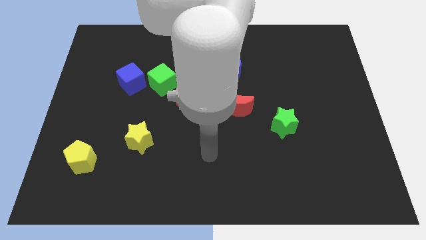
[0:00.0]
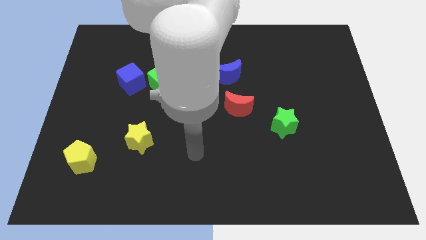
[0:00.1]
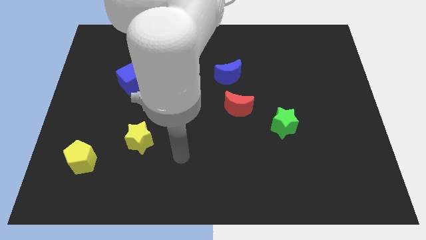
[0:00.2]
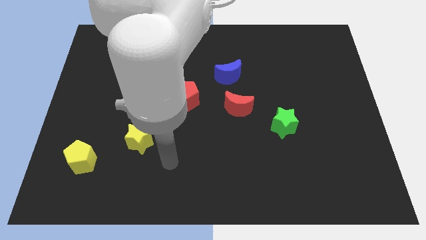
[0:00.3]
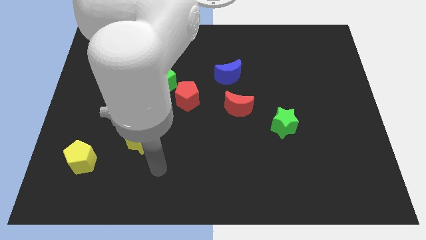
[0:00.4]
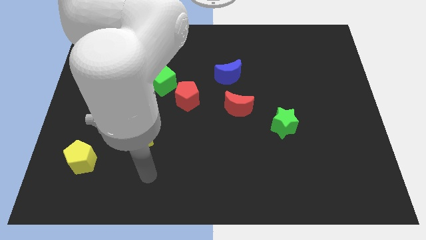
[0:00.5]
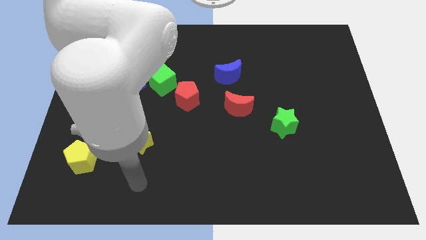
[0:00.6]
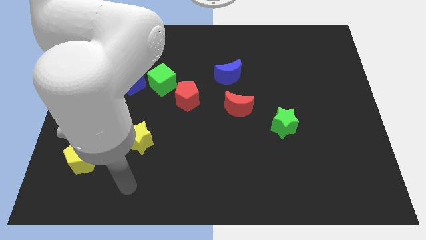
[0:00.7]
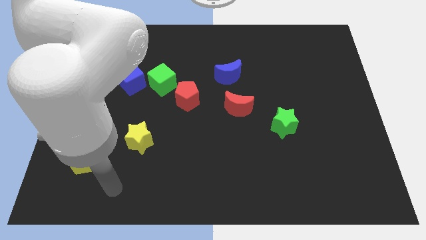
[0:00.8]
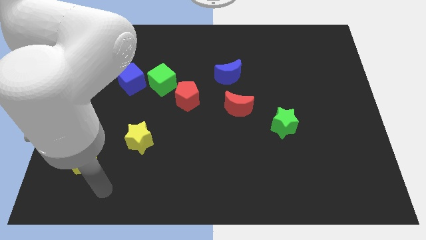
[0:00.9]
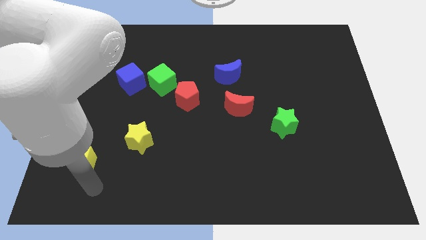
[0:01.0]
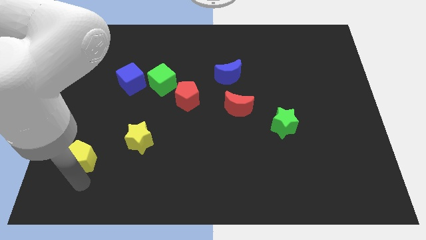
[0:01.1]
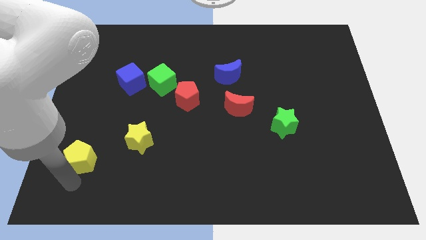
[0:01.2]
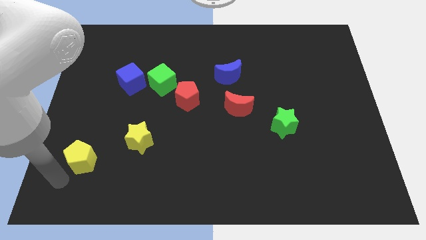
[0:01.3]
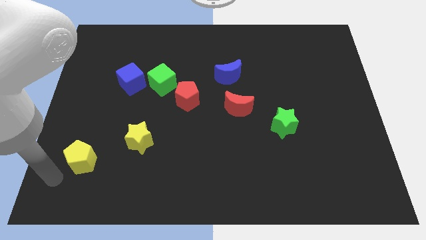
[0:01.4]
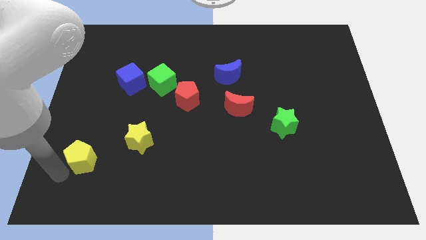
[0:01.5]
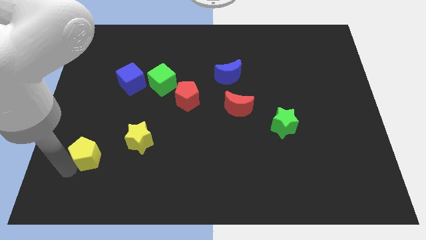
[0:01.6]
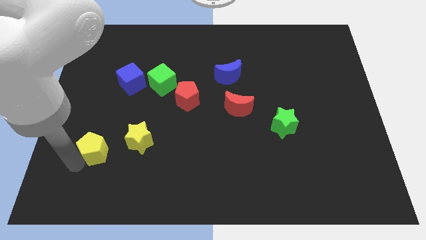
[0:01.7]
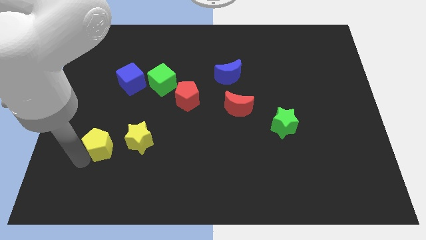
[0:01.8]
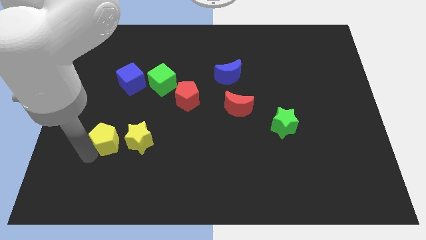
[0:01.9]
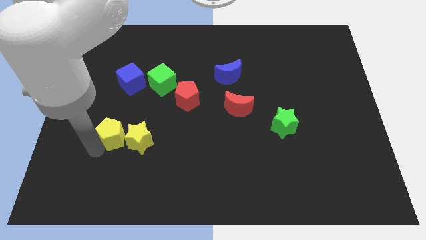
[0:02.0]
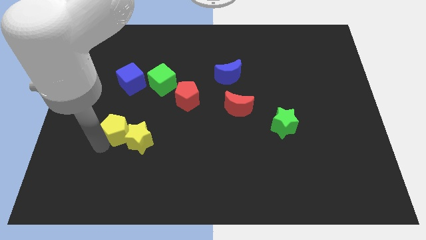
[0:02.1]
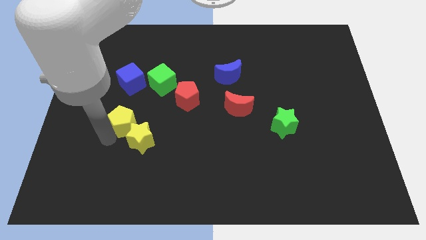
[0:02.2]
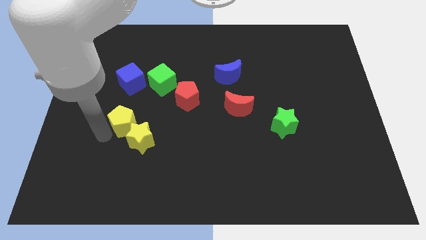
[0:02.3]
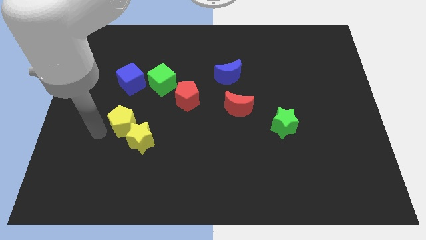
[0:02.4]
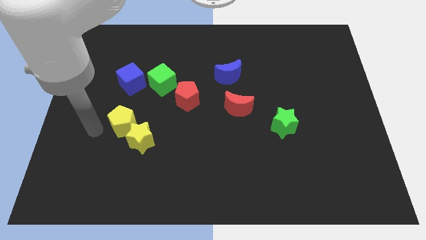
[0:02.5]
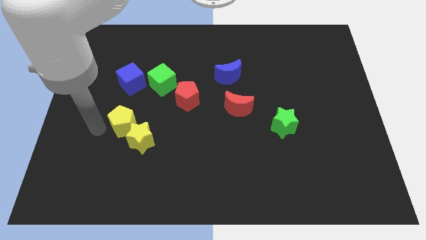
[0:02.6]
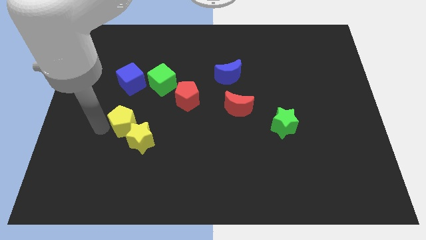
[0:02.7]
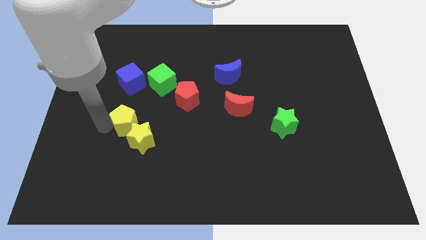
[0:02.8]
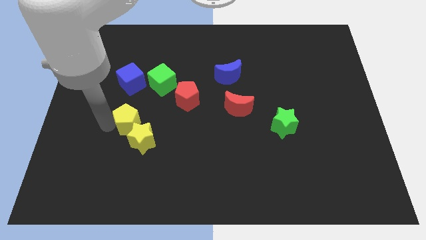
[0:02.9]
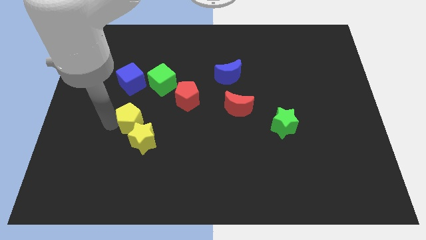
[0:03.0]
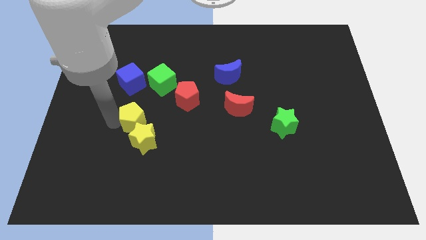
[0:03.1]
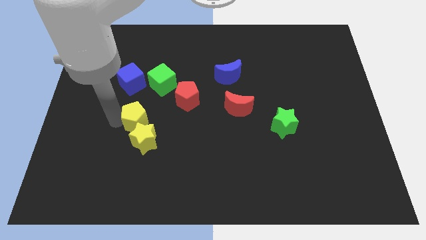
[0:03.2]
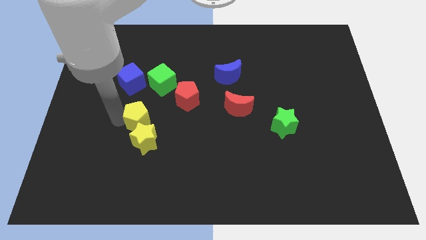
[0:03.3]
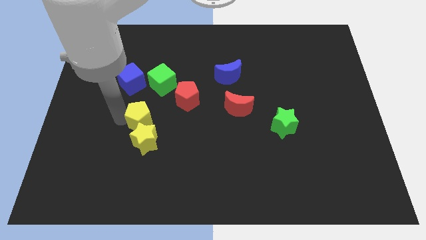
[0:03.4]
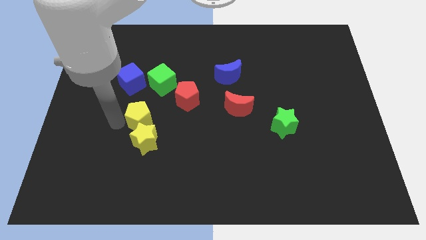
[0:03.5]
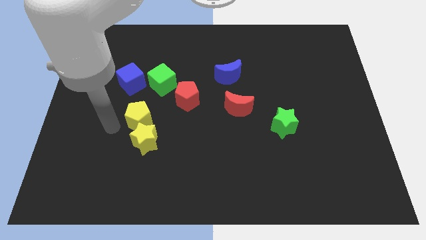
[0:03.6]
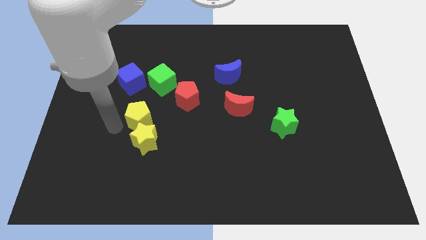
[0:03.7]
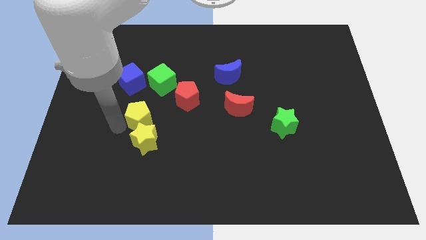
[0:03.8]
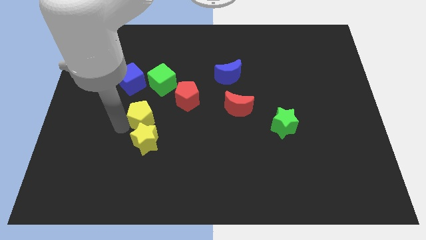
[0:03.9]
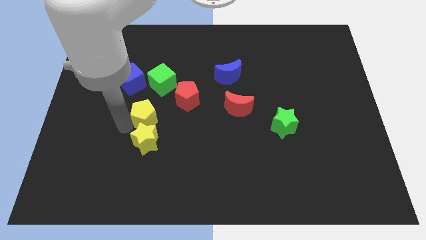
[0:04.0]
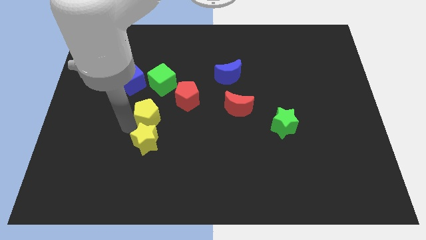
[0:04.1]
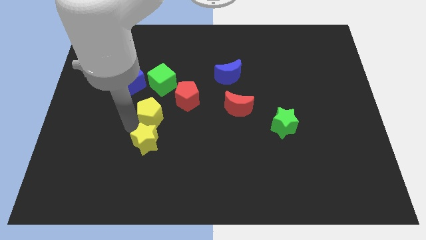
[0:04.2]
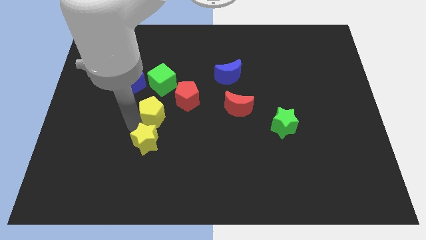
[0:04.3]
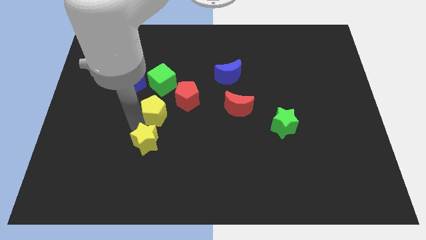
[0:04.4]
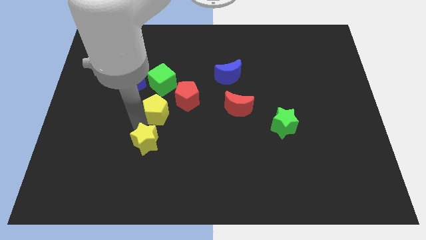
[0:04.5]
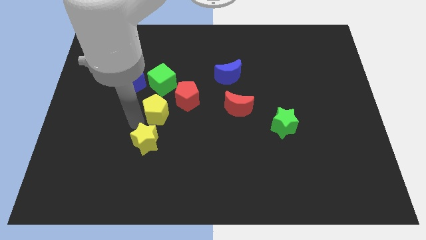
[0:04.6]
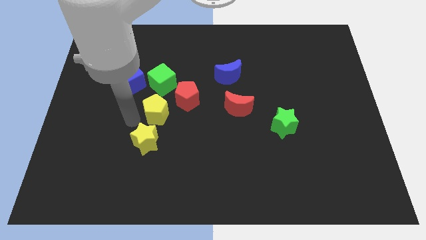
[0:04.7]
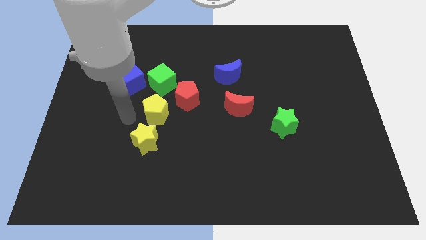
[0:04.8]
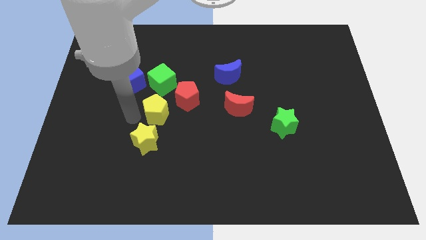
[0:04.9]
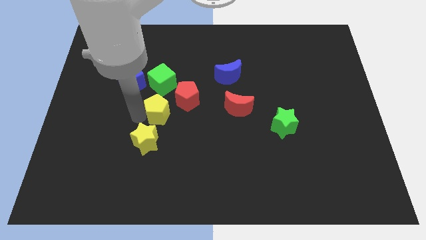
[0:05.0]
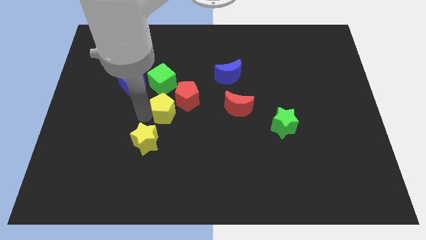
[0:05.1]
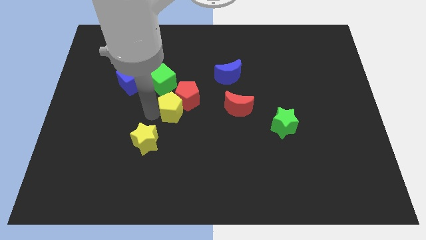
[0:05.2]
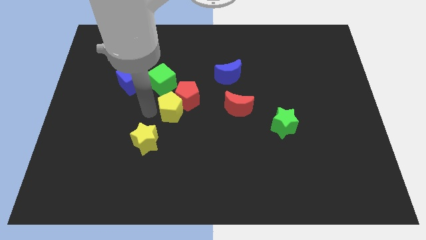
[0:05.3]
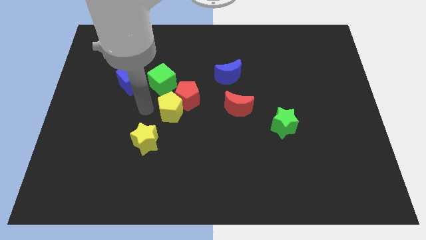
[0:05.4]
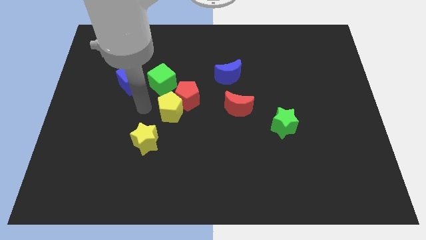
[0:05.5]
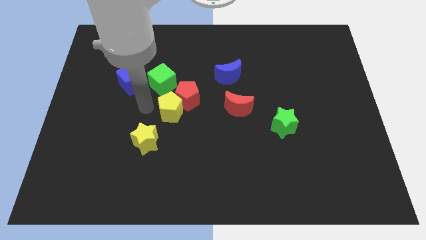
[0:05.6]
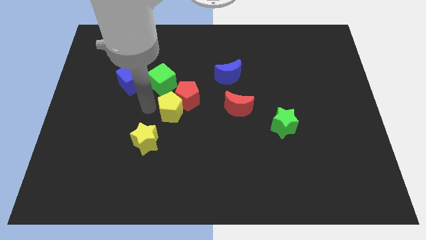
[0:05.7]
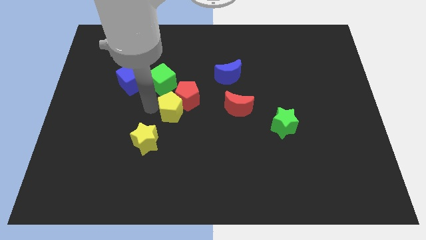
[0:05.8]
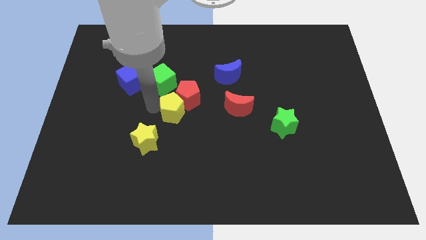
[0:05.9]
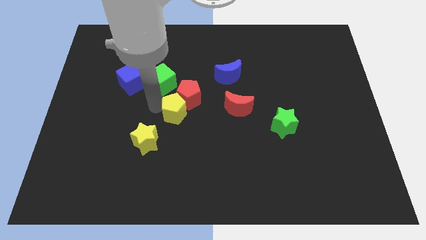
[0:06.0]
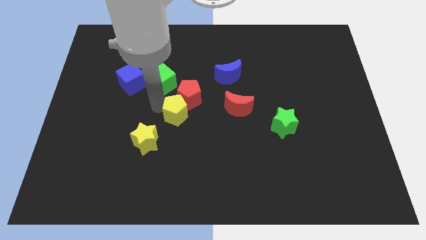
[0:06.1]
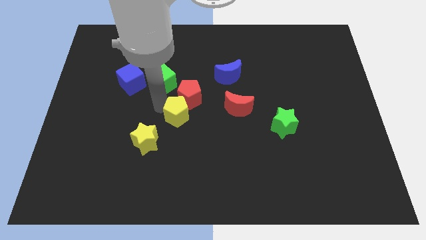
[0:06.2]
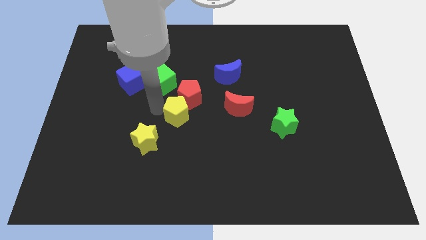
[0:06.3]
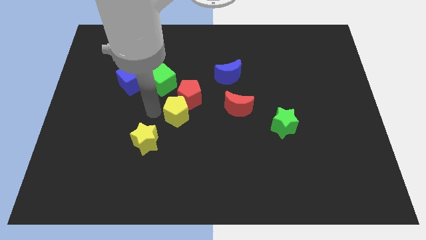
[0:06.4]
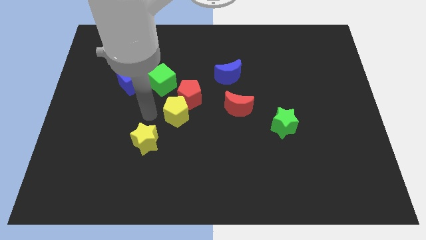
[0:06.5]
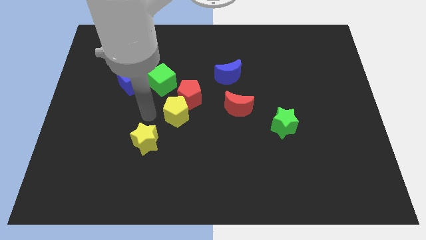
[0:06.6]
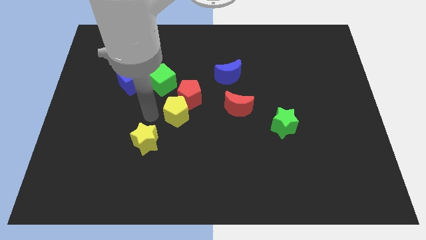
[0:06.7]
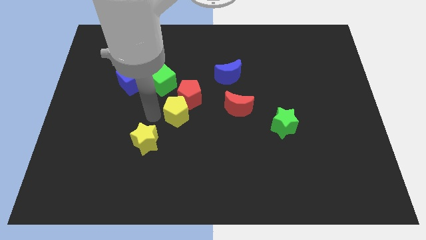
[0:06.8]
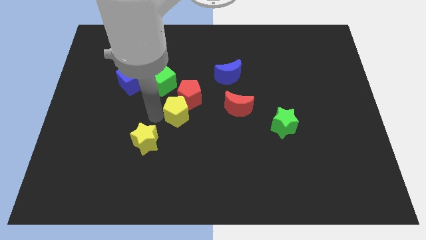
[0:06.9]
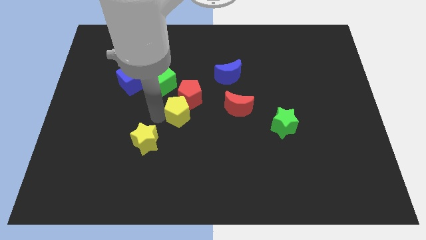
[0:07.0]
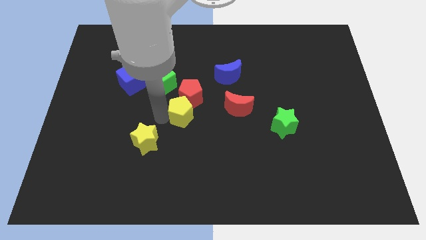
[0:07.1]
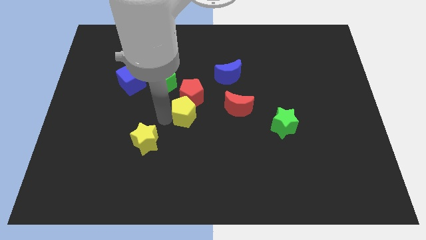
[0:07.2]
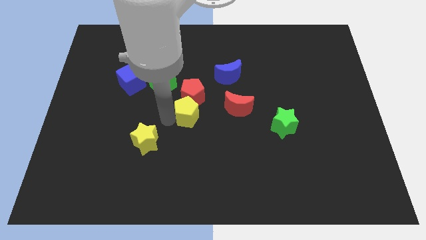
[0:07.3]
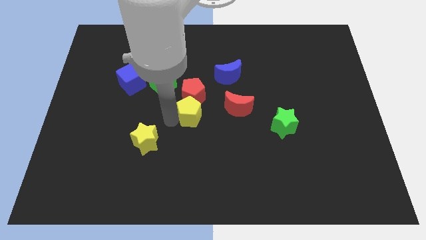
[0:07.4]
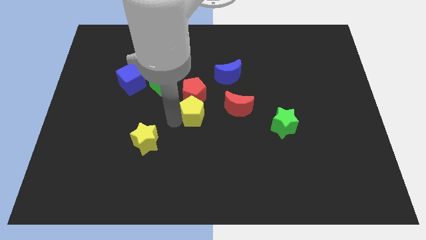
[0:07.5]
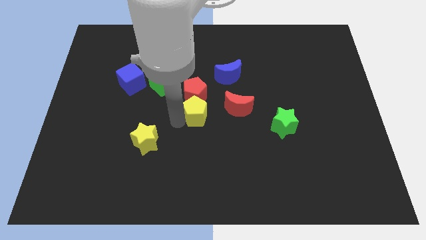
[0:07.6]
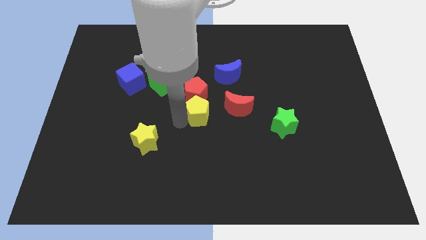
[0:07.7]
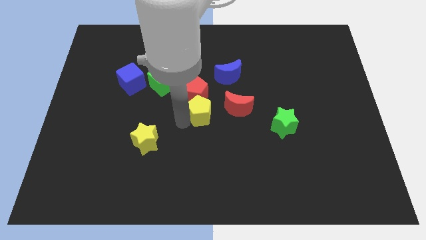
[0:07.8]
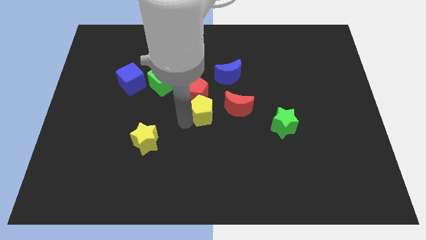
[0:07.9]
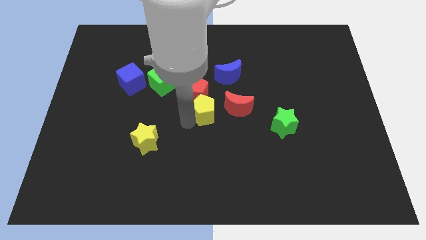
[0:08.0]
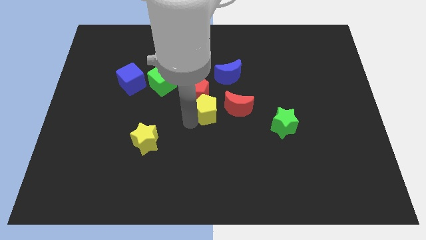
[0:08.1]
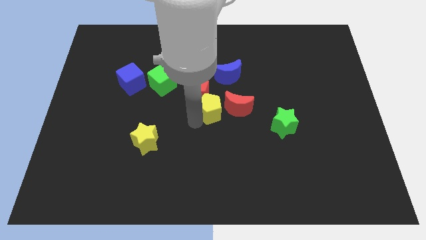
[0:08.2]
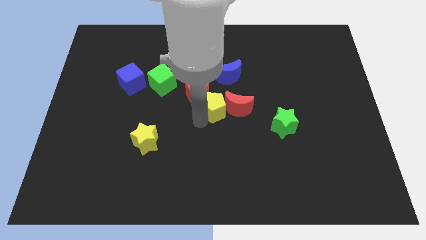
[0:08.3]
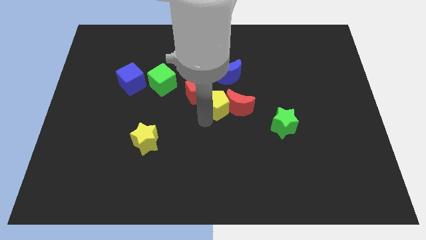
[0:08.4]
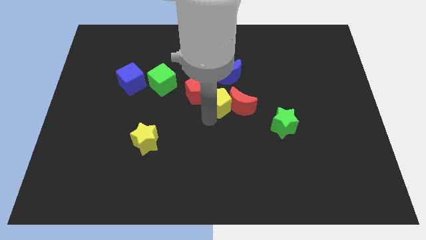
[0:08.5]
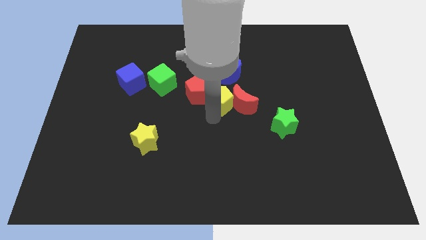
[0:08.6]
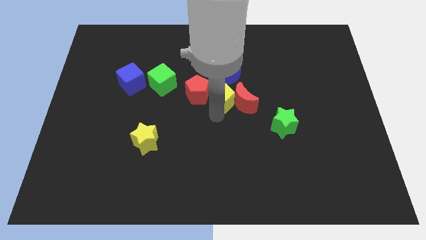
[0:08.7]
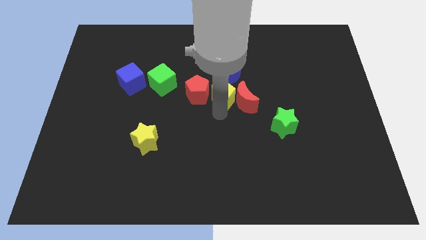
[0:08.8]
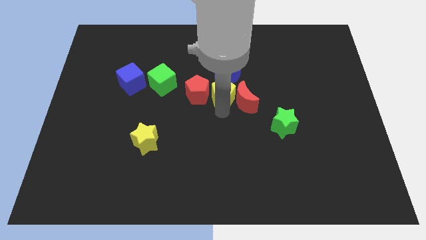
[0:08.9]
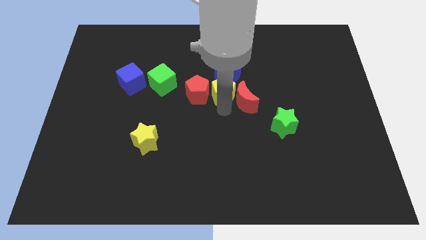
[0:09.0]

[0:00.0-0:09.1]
push the yellow pentagon diagonally up and to the right of the red pentagon
